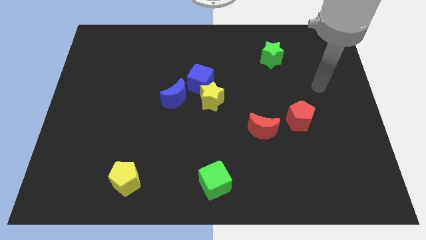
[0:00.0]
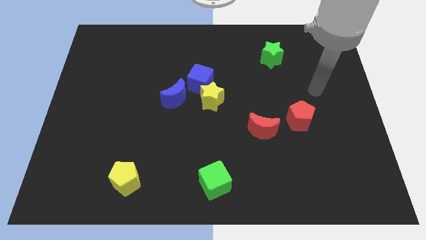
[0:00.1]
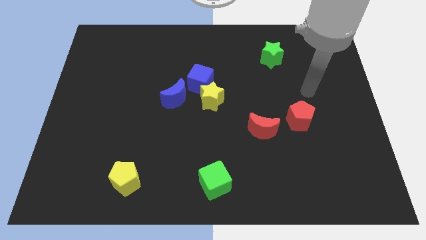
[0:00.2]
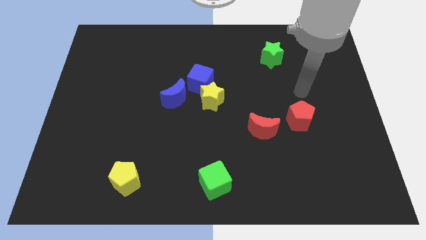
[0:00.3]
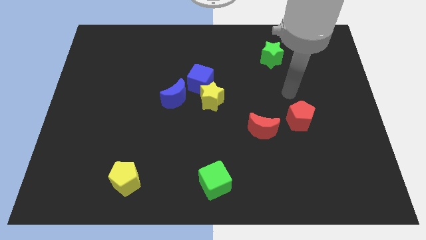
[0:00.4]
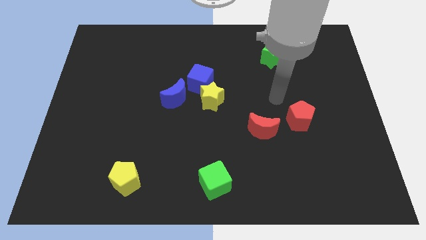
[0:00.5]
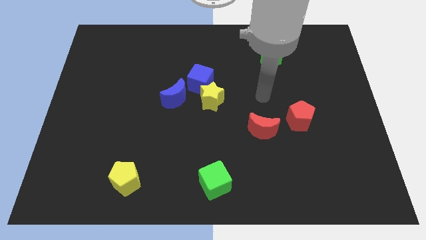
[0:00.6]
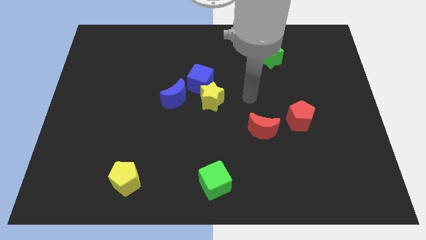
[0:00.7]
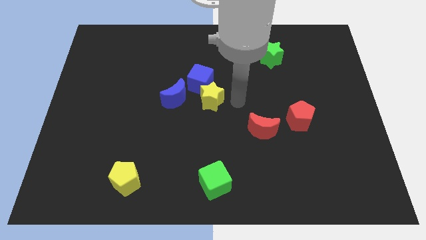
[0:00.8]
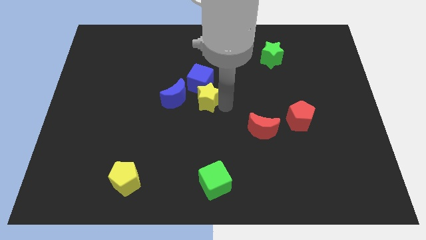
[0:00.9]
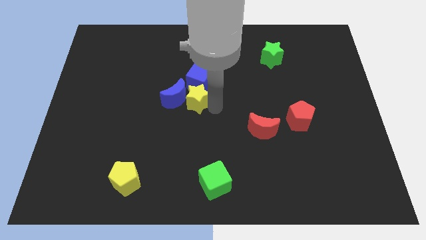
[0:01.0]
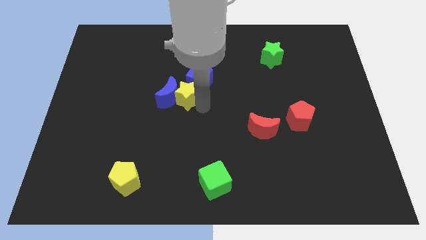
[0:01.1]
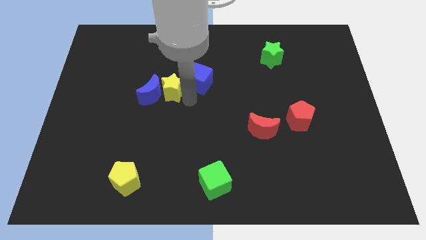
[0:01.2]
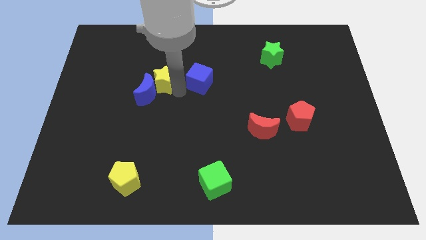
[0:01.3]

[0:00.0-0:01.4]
separate the blue cube from the yellow star and blue moon

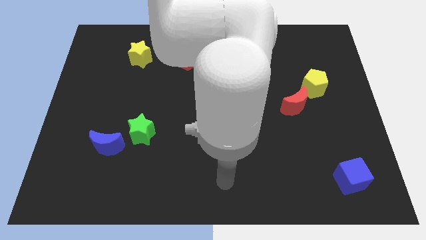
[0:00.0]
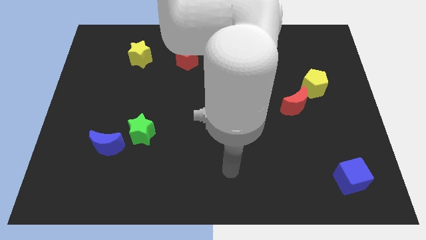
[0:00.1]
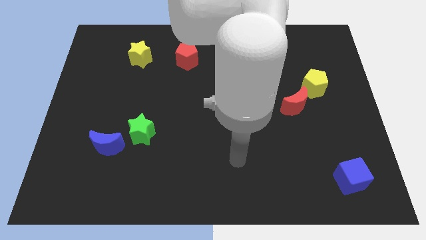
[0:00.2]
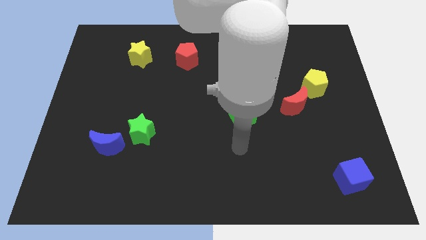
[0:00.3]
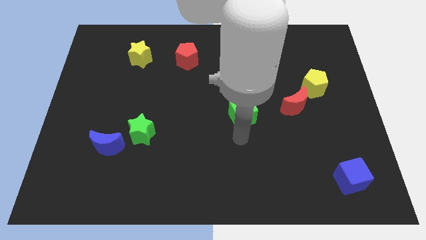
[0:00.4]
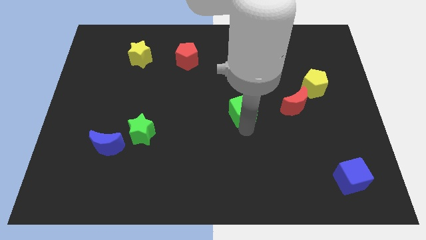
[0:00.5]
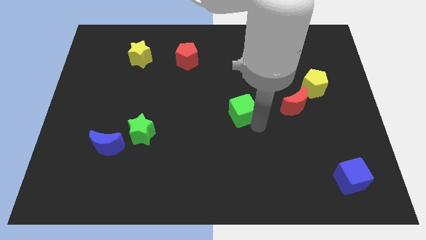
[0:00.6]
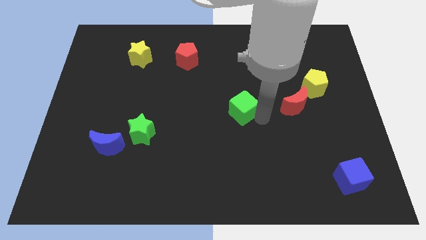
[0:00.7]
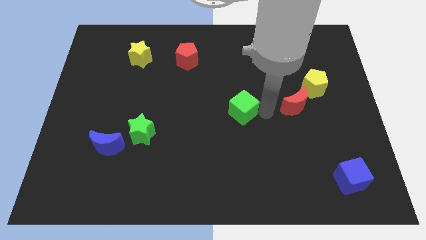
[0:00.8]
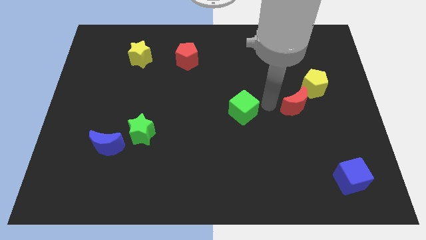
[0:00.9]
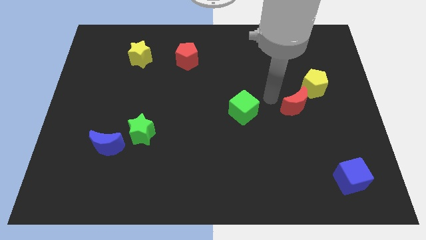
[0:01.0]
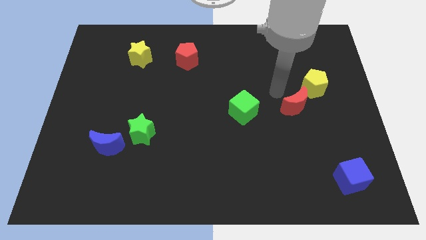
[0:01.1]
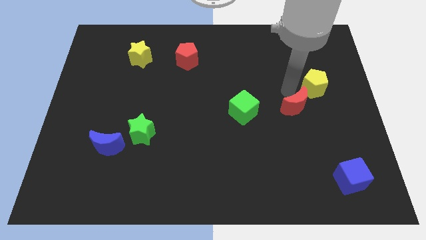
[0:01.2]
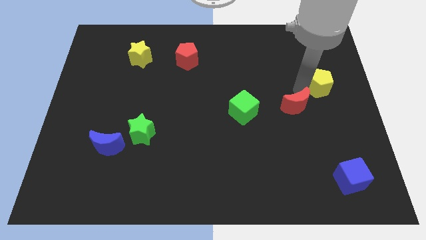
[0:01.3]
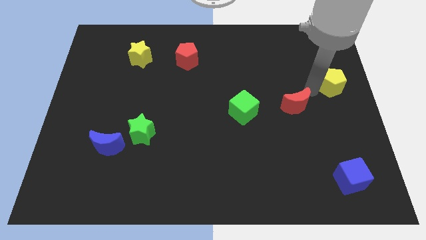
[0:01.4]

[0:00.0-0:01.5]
pull the red moon apart from the yellow pentagon

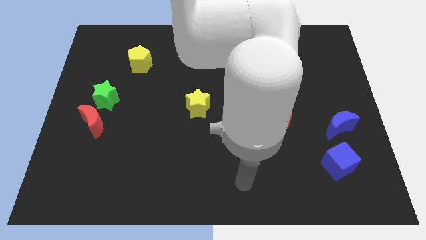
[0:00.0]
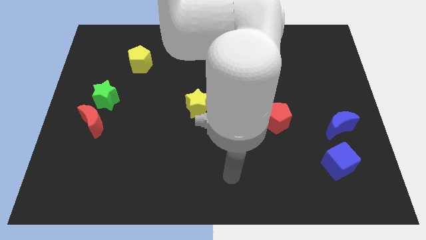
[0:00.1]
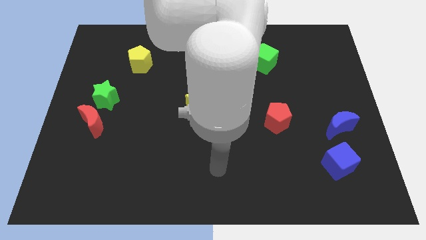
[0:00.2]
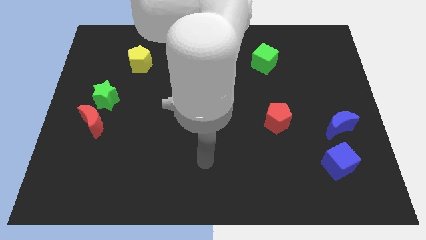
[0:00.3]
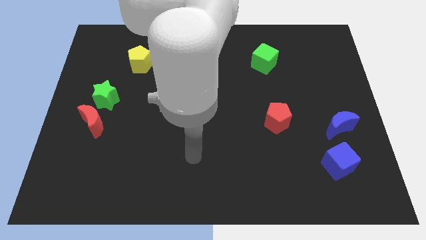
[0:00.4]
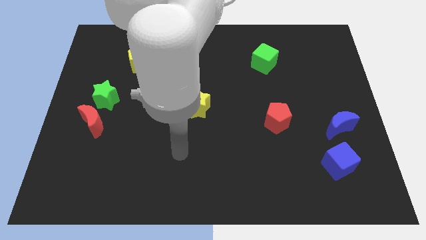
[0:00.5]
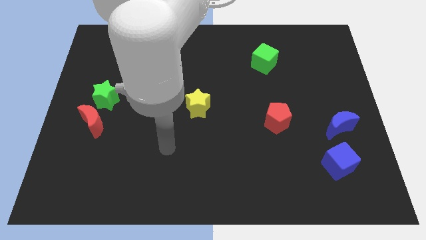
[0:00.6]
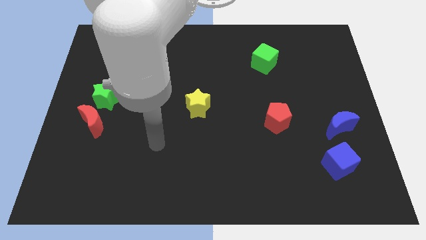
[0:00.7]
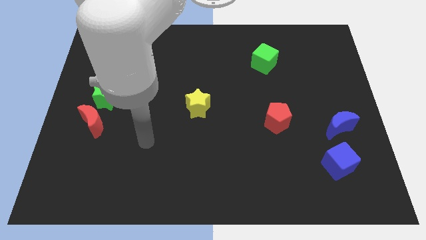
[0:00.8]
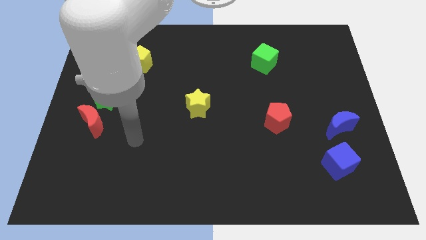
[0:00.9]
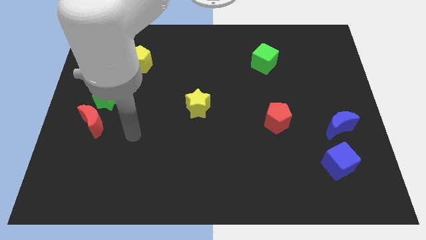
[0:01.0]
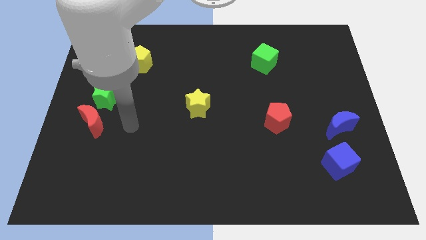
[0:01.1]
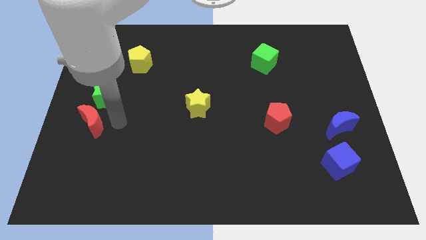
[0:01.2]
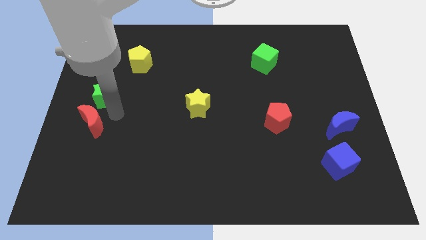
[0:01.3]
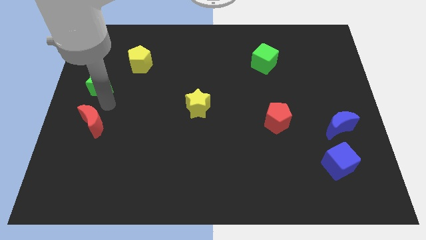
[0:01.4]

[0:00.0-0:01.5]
separate the red moon from the green star

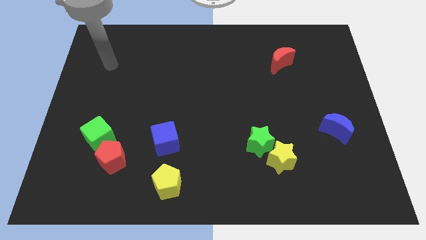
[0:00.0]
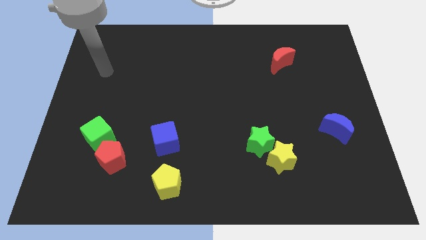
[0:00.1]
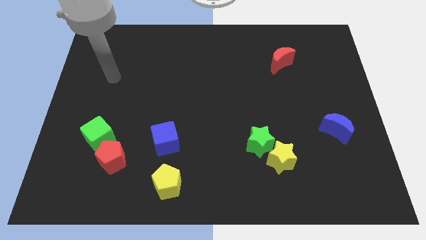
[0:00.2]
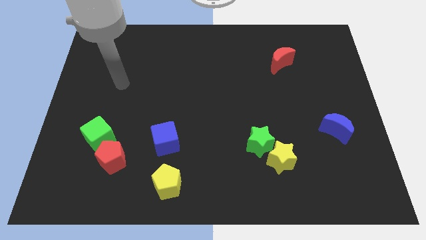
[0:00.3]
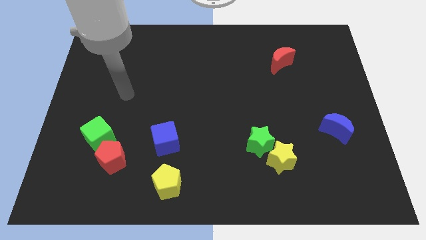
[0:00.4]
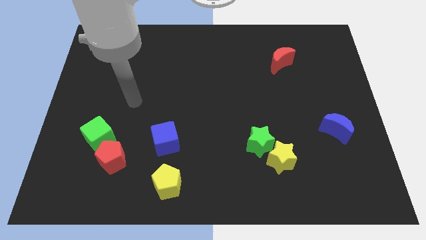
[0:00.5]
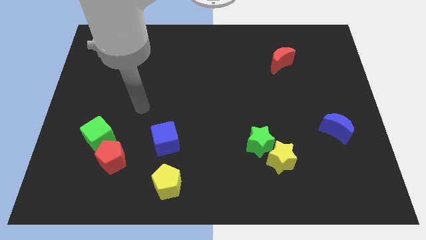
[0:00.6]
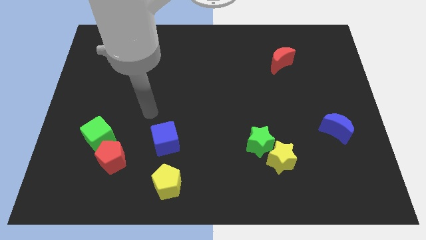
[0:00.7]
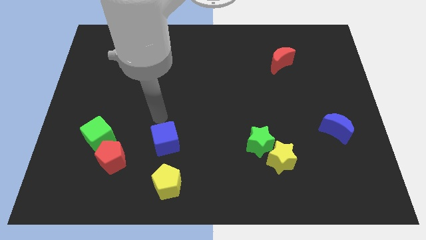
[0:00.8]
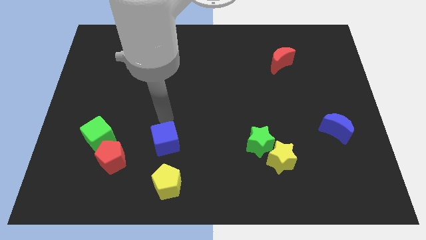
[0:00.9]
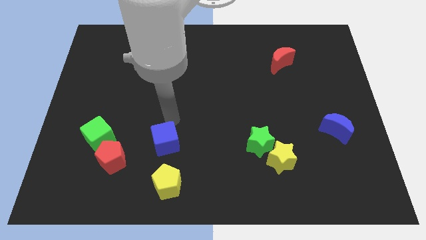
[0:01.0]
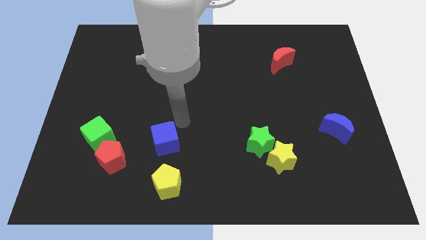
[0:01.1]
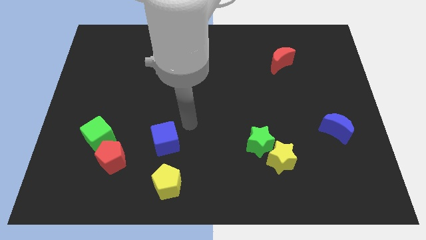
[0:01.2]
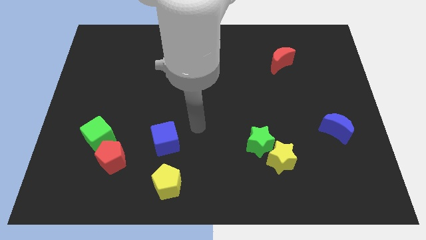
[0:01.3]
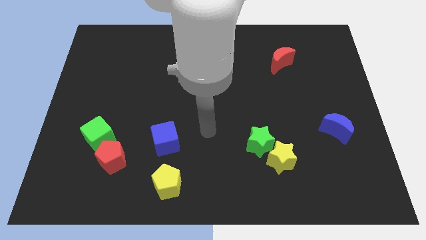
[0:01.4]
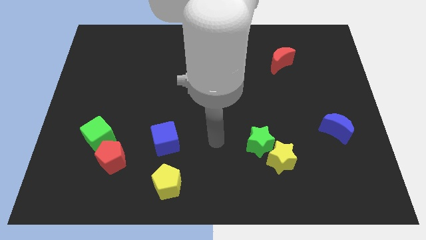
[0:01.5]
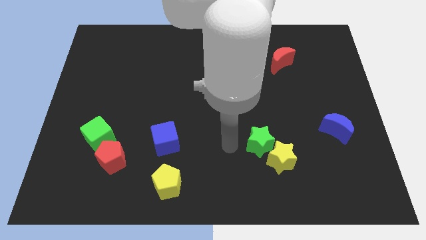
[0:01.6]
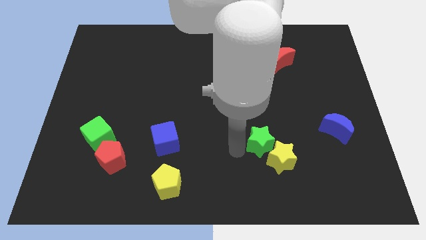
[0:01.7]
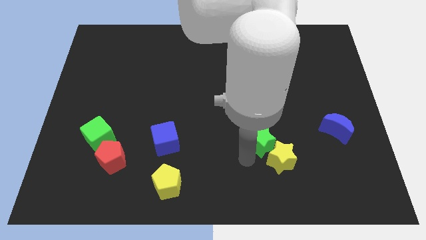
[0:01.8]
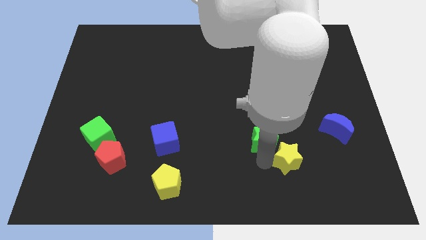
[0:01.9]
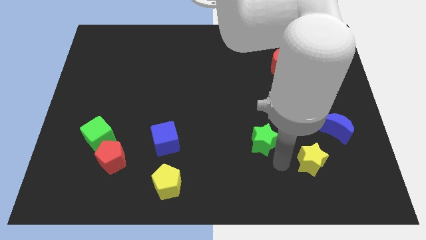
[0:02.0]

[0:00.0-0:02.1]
pull the green star apart from the yellow star

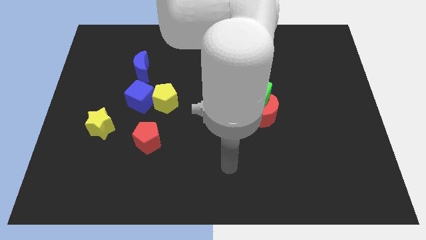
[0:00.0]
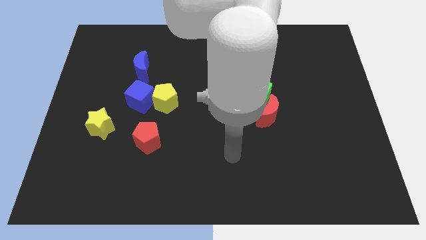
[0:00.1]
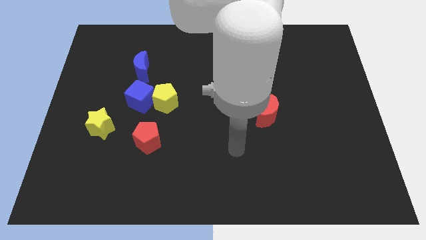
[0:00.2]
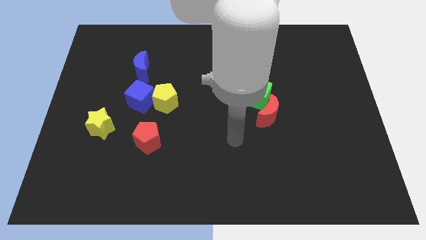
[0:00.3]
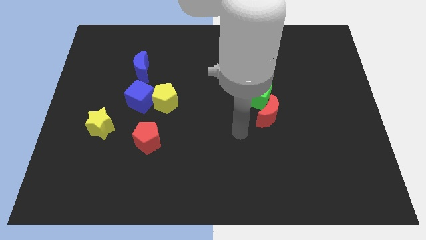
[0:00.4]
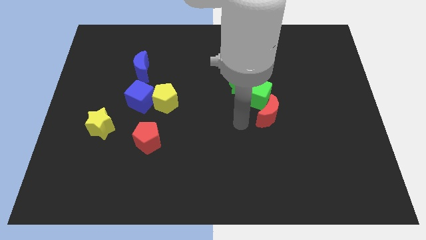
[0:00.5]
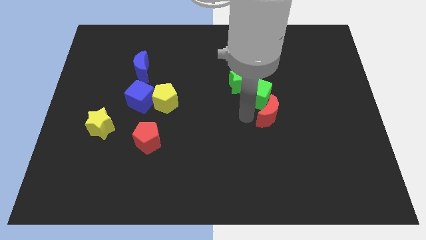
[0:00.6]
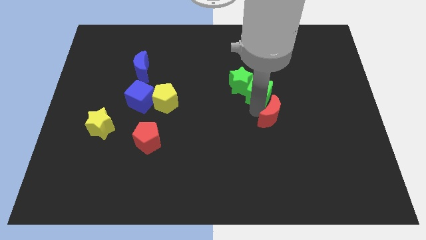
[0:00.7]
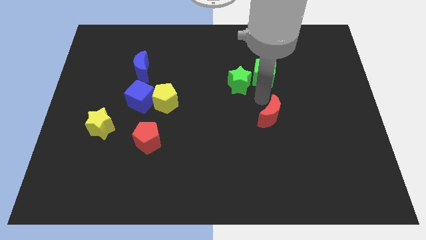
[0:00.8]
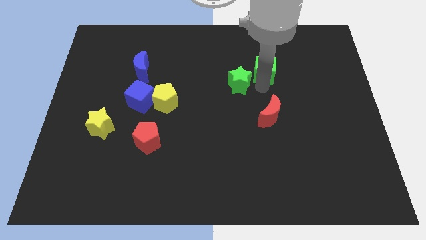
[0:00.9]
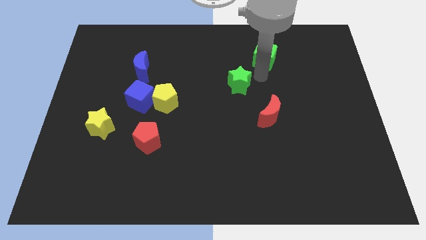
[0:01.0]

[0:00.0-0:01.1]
separate the green star from the green cube

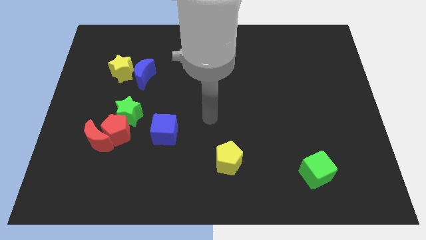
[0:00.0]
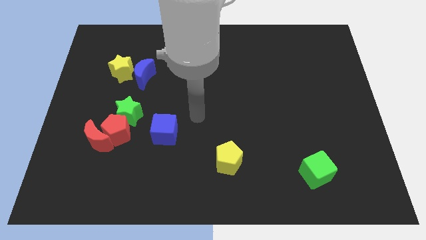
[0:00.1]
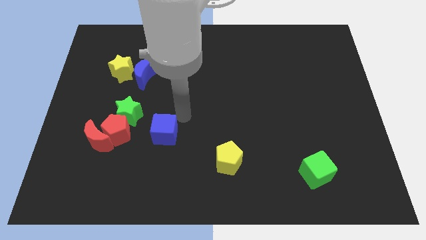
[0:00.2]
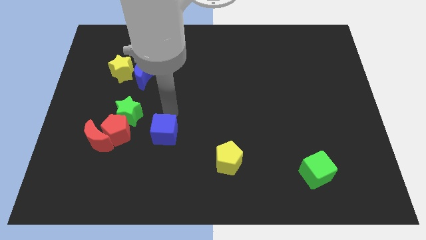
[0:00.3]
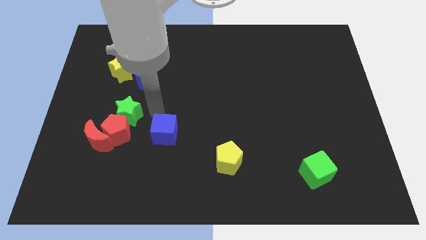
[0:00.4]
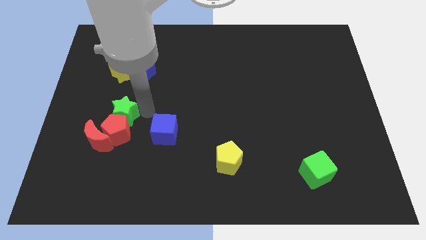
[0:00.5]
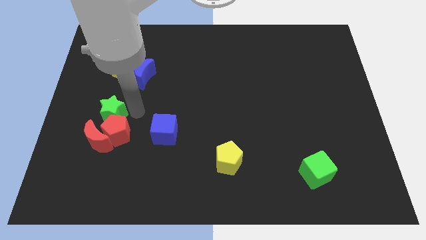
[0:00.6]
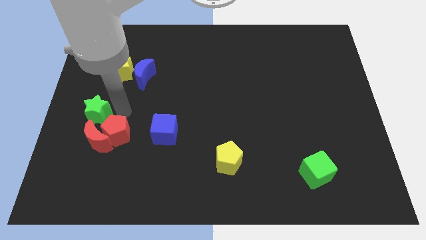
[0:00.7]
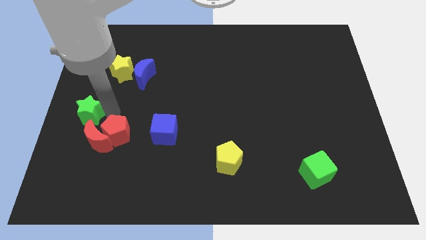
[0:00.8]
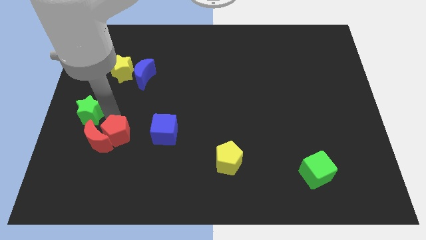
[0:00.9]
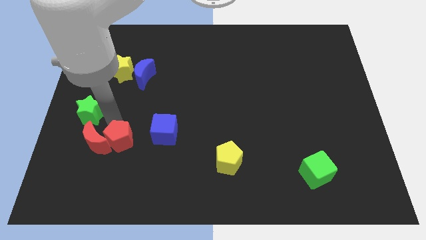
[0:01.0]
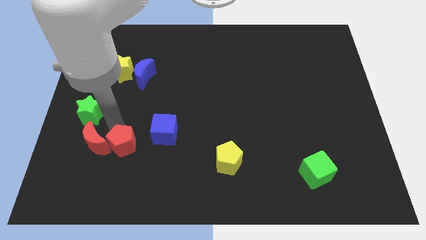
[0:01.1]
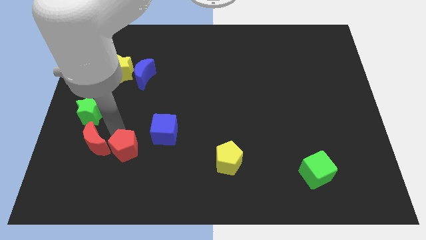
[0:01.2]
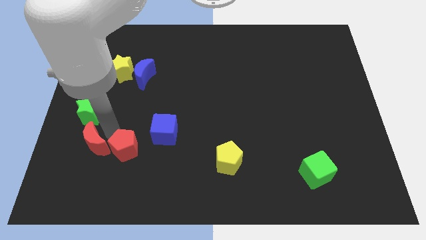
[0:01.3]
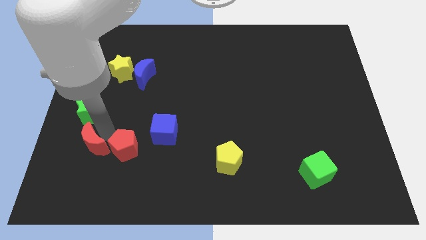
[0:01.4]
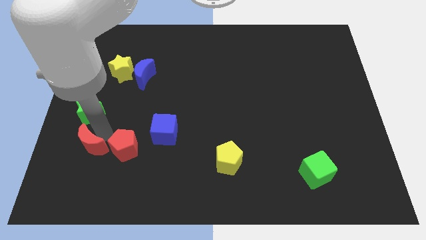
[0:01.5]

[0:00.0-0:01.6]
move the red pentagon away from the red moon and green star

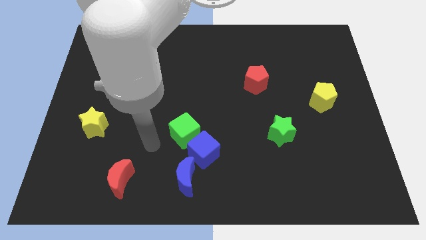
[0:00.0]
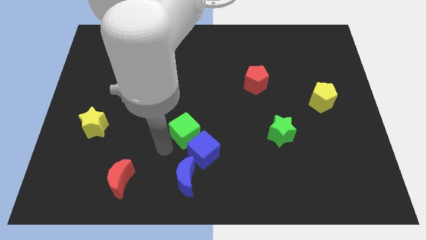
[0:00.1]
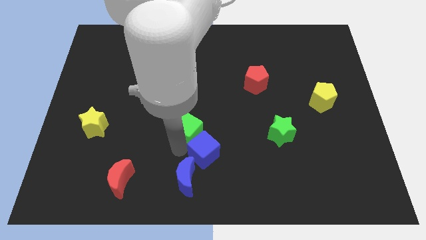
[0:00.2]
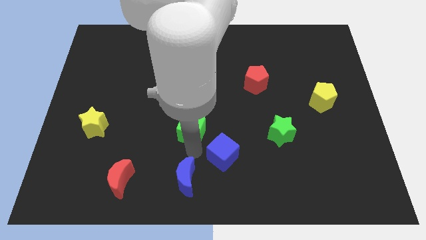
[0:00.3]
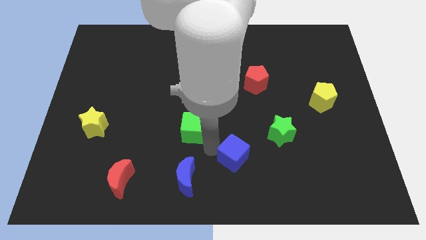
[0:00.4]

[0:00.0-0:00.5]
separate the green cube from the blue cube
